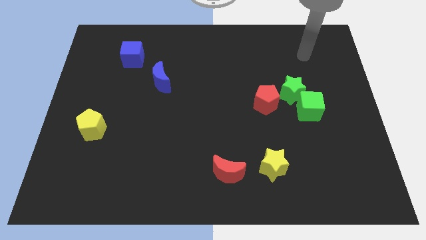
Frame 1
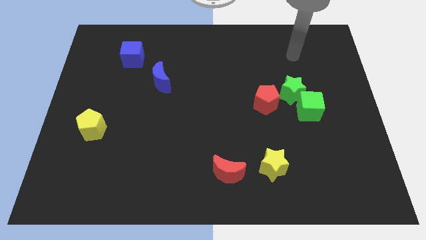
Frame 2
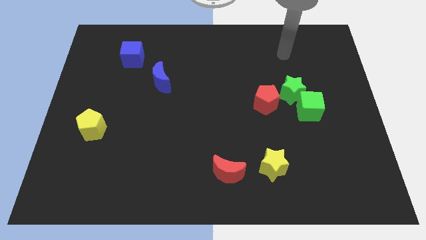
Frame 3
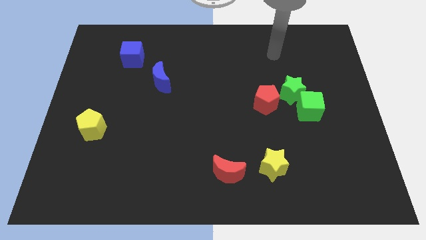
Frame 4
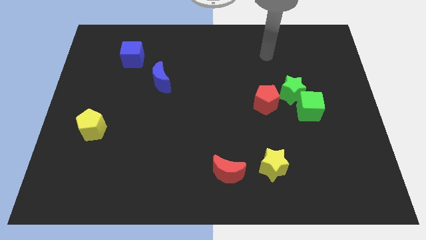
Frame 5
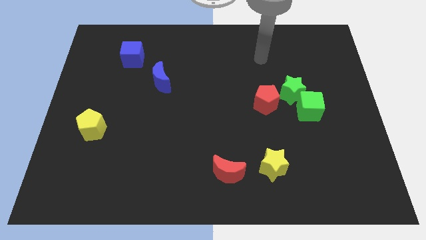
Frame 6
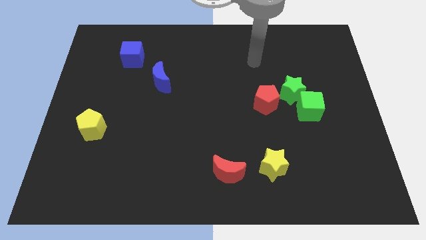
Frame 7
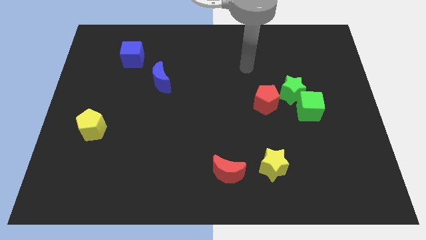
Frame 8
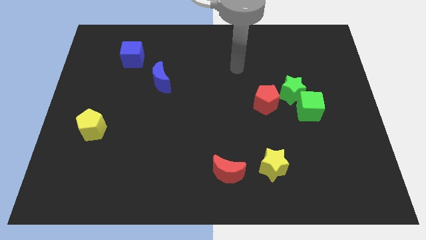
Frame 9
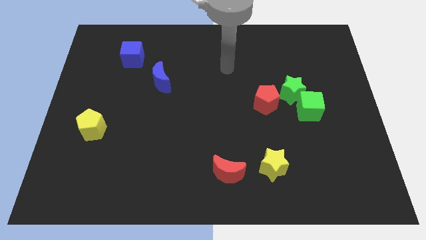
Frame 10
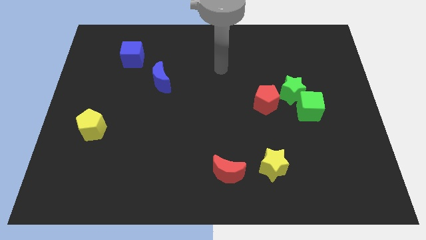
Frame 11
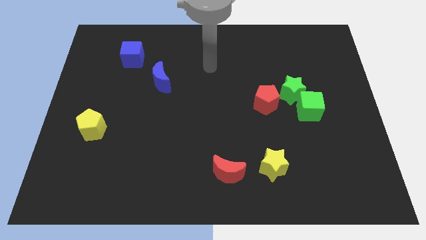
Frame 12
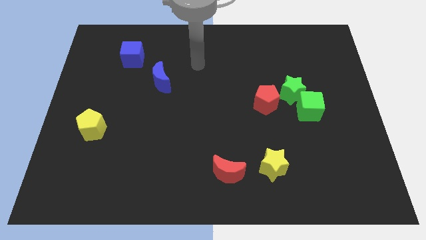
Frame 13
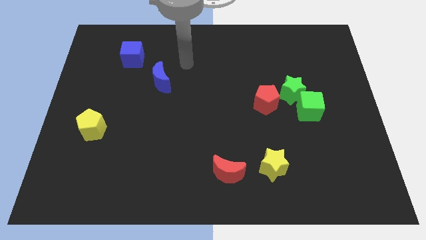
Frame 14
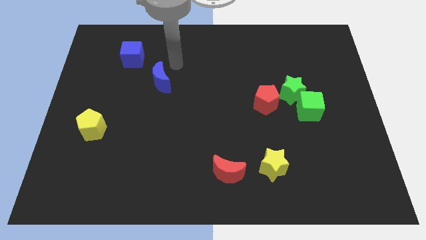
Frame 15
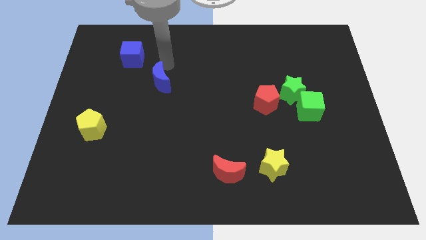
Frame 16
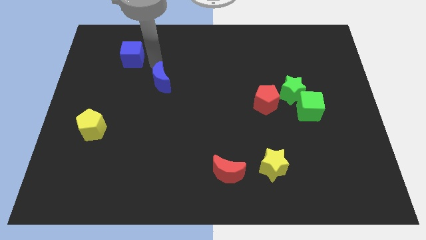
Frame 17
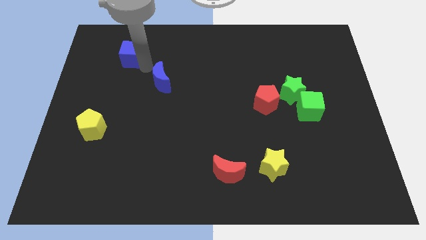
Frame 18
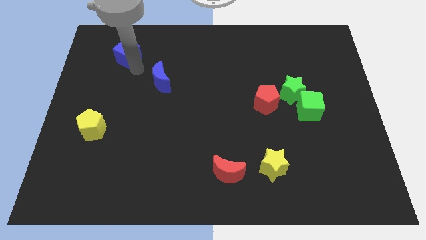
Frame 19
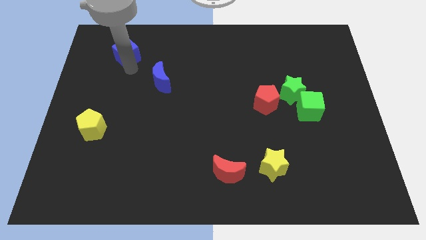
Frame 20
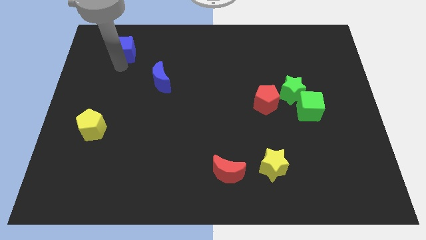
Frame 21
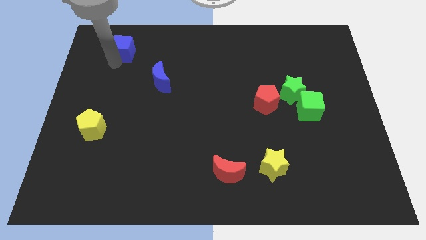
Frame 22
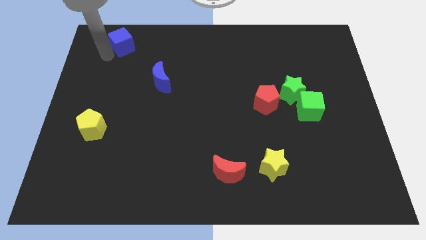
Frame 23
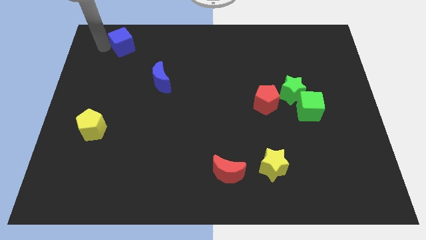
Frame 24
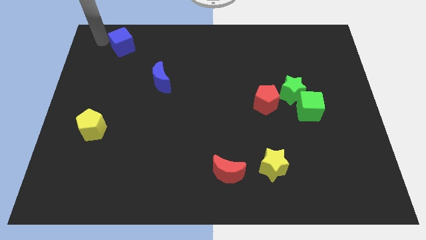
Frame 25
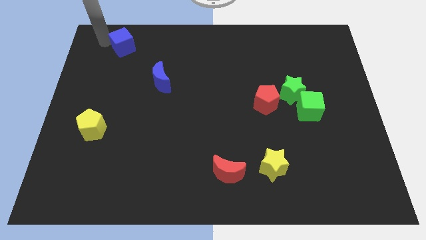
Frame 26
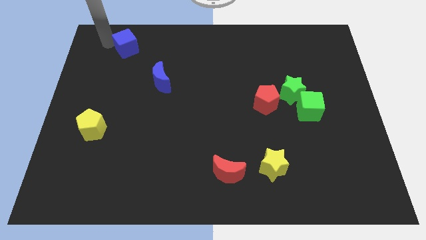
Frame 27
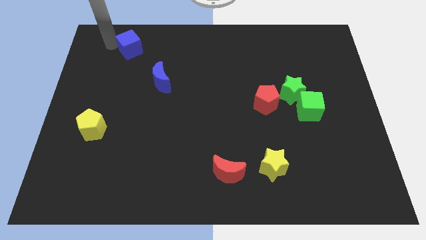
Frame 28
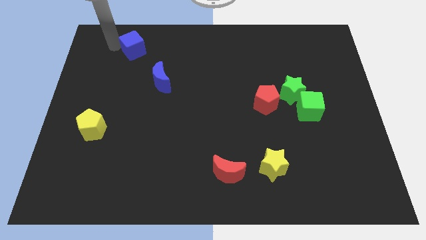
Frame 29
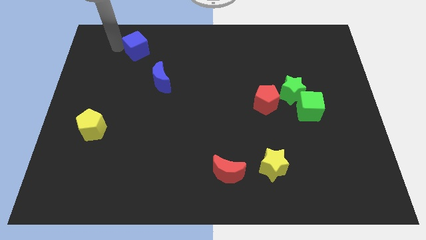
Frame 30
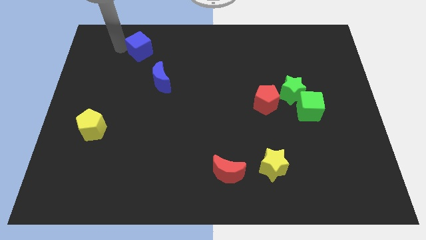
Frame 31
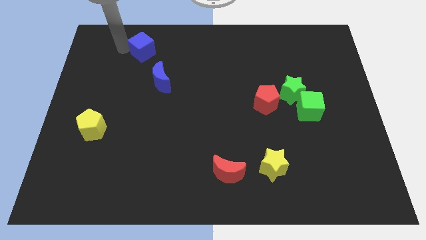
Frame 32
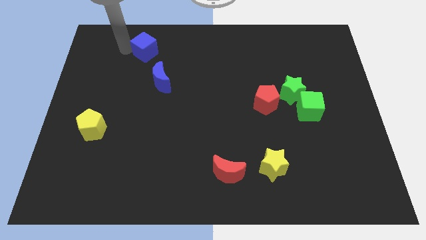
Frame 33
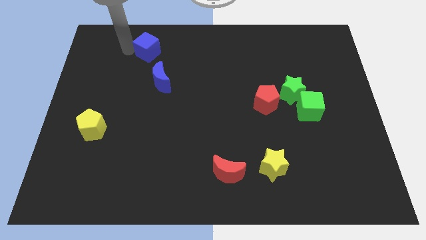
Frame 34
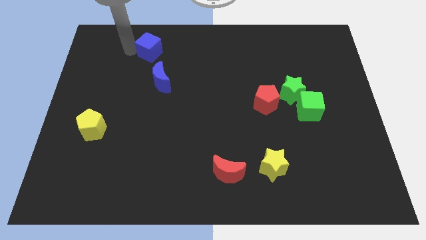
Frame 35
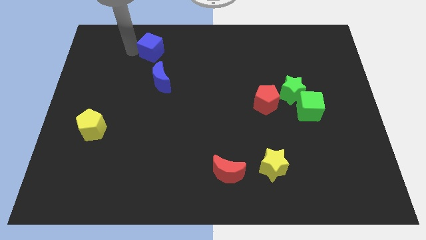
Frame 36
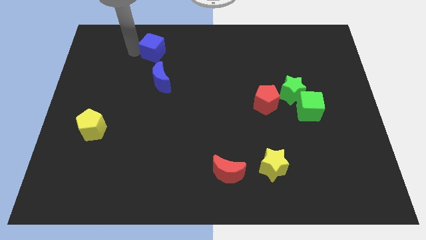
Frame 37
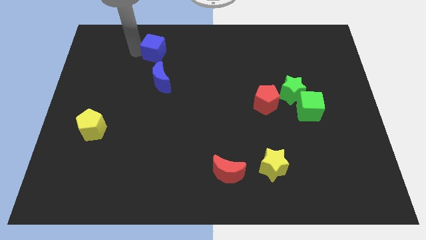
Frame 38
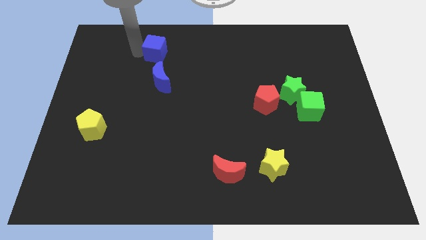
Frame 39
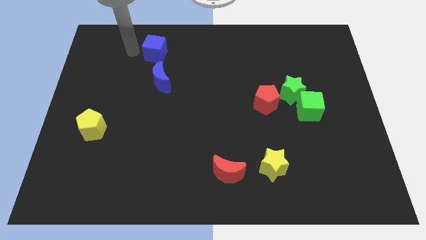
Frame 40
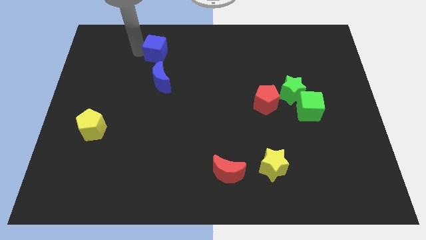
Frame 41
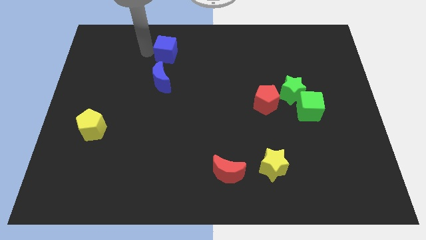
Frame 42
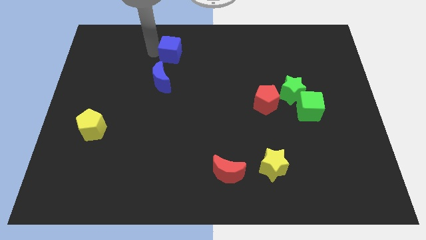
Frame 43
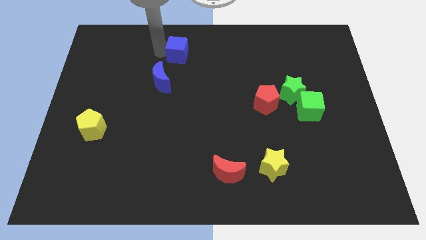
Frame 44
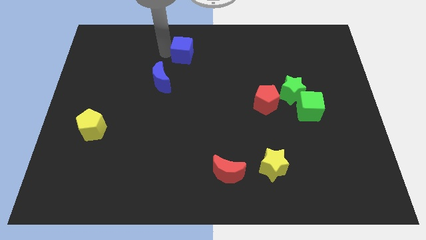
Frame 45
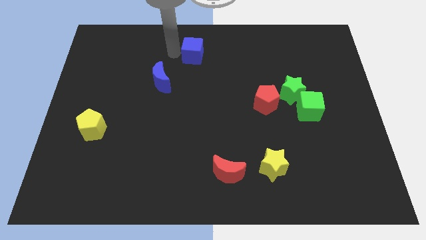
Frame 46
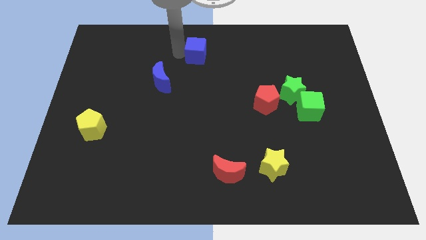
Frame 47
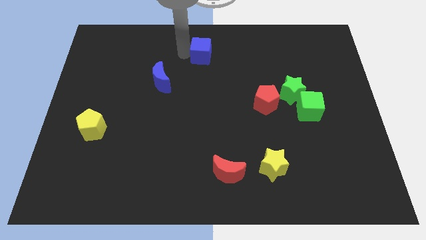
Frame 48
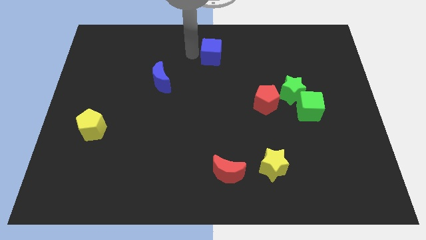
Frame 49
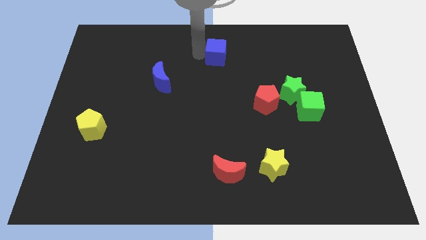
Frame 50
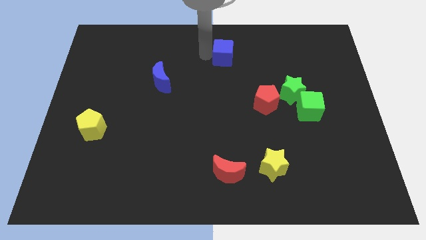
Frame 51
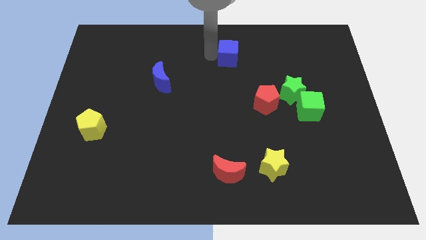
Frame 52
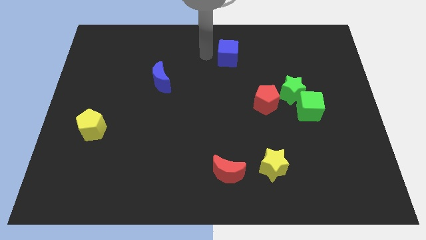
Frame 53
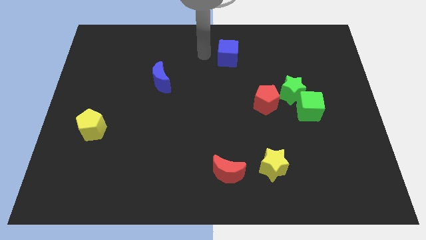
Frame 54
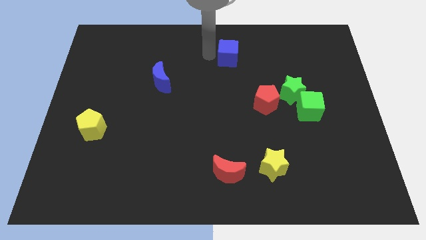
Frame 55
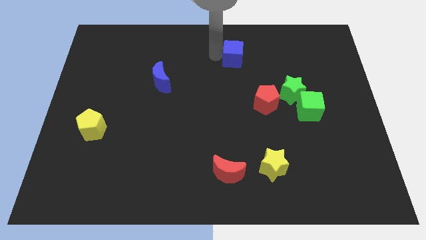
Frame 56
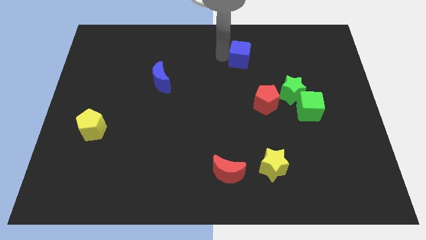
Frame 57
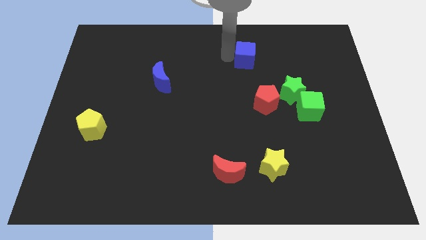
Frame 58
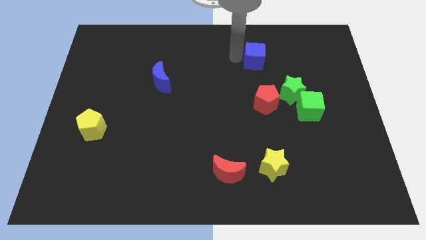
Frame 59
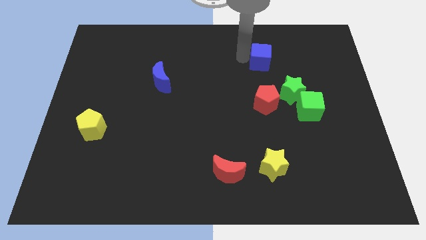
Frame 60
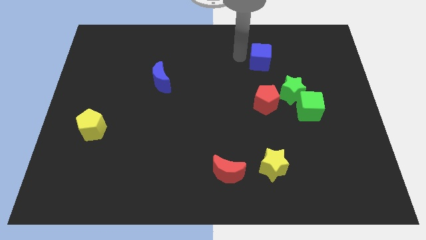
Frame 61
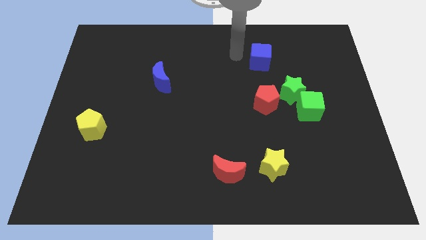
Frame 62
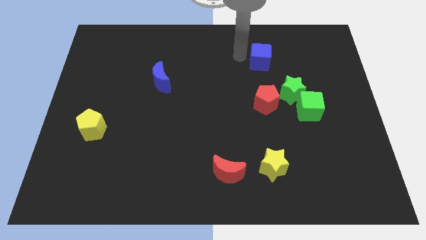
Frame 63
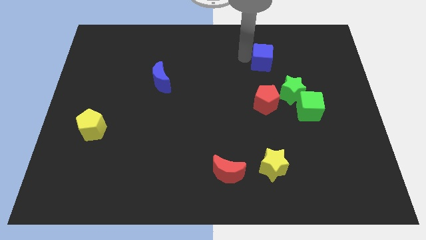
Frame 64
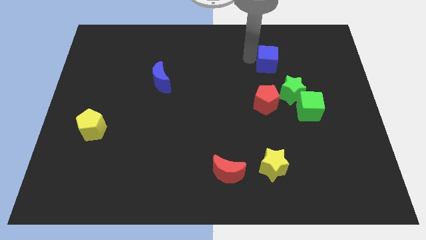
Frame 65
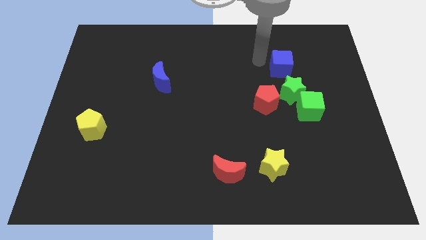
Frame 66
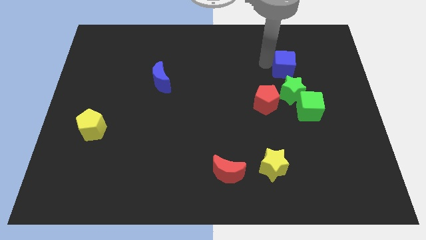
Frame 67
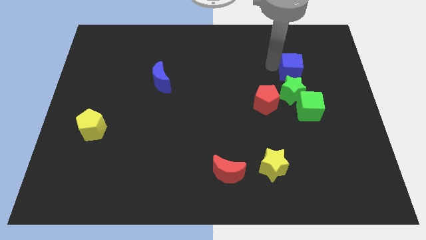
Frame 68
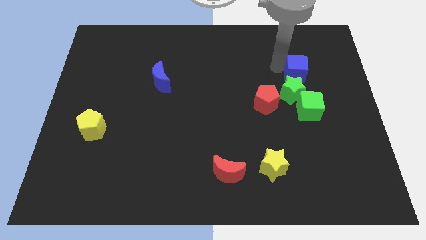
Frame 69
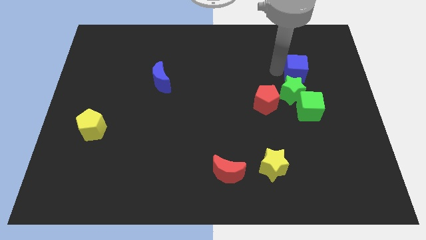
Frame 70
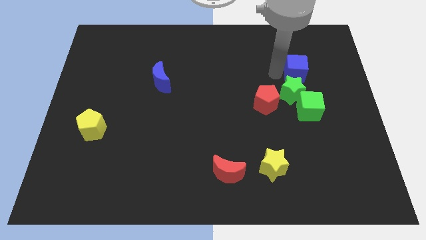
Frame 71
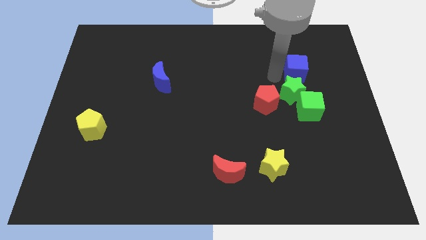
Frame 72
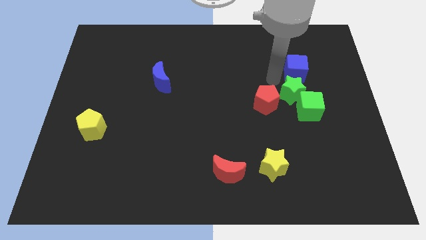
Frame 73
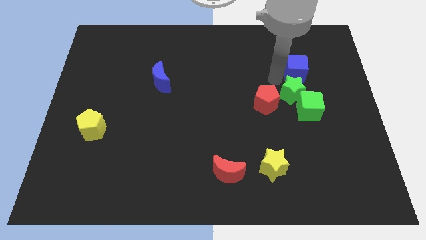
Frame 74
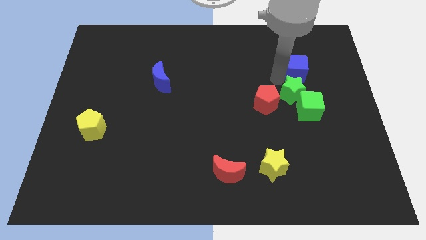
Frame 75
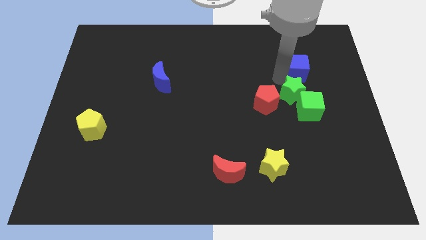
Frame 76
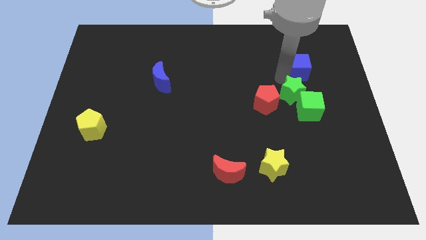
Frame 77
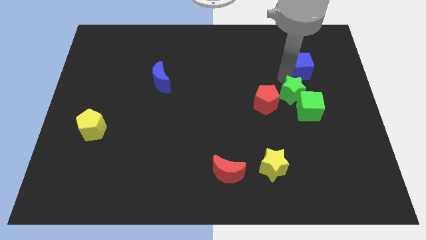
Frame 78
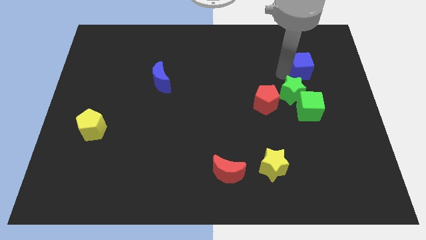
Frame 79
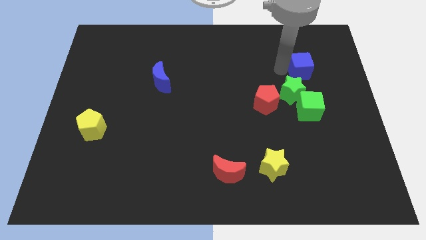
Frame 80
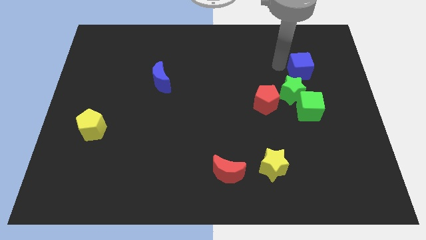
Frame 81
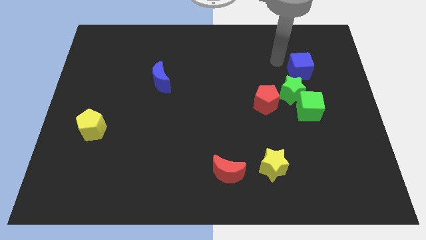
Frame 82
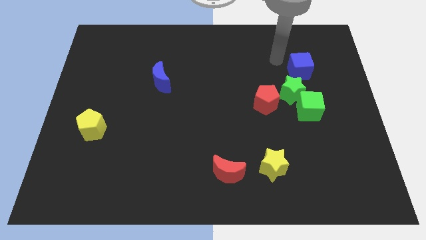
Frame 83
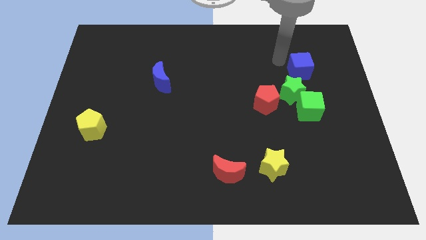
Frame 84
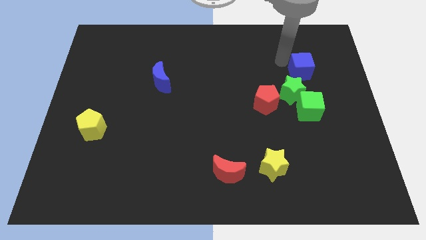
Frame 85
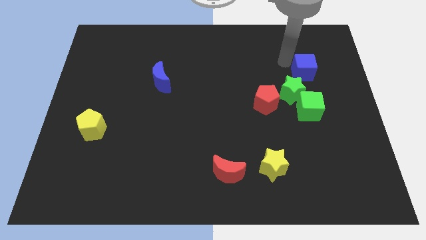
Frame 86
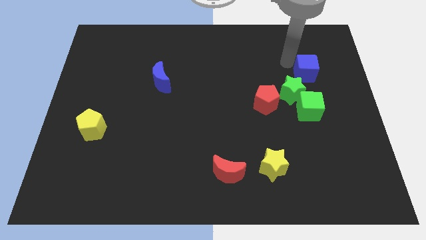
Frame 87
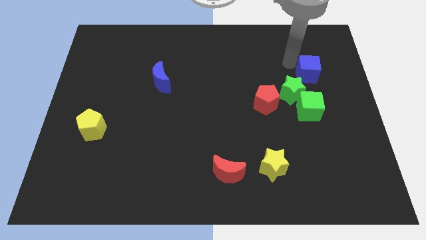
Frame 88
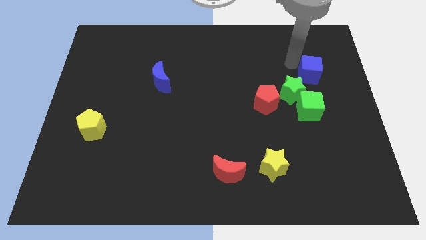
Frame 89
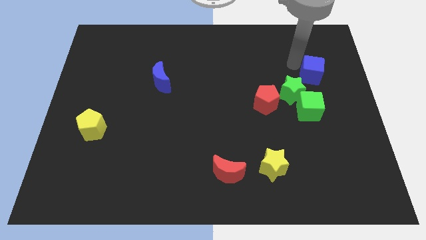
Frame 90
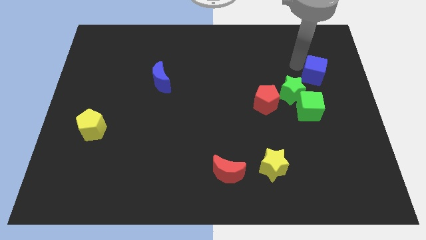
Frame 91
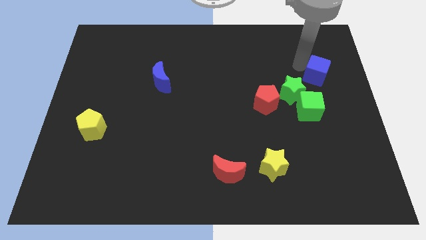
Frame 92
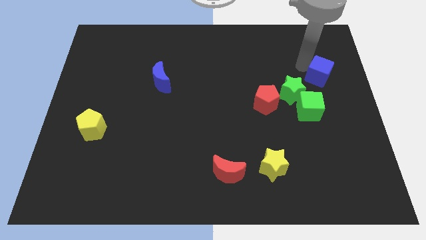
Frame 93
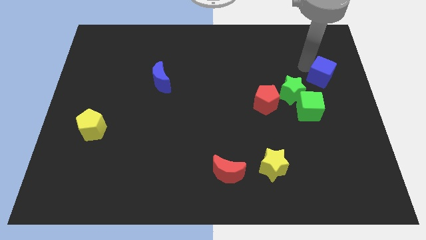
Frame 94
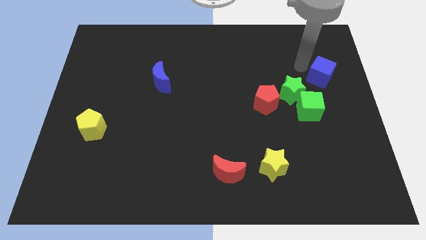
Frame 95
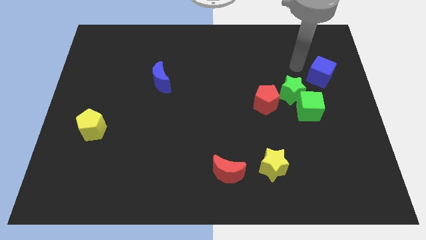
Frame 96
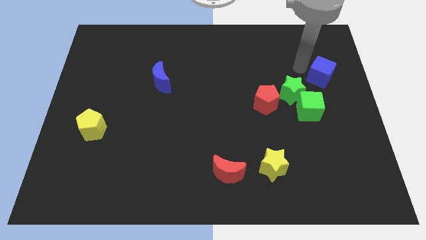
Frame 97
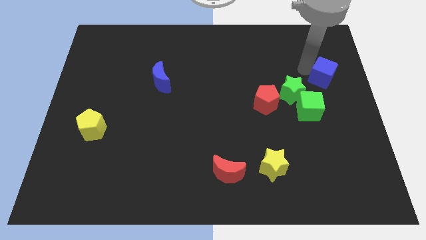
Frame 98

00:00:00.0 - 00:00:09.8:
push the blue cube to the right side
